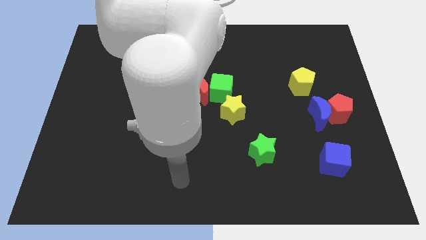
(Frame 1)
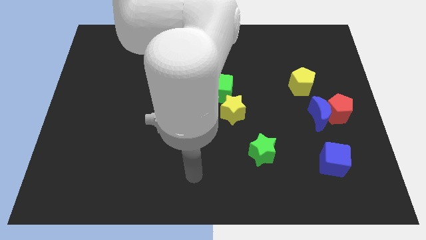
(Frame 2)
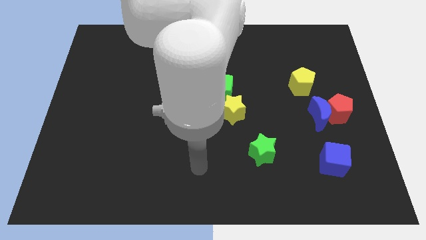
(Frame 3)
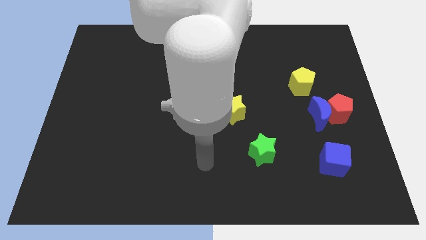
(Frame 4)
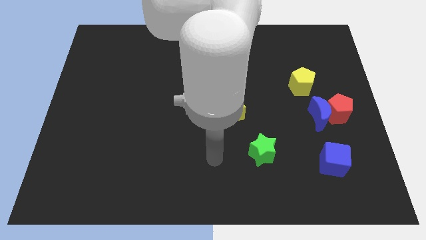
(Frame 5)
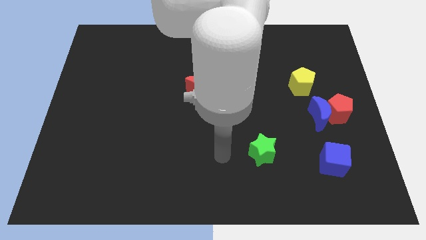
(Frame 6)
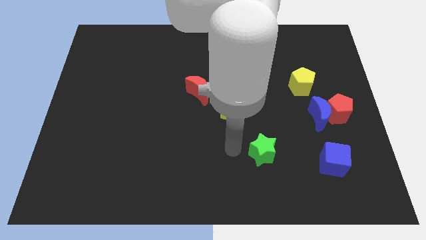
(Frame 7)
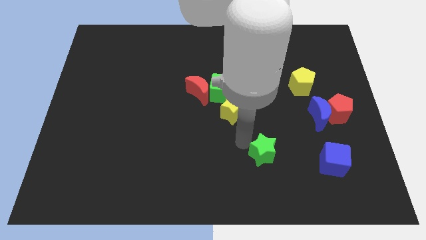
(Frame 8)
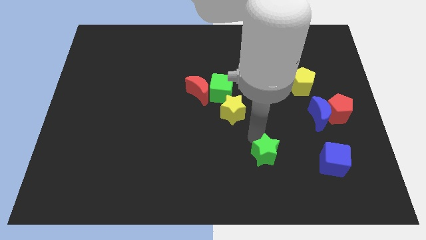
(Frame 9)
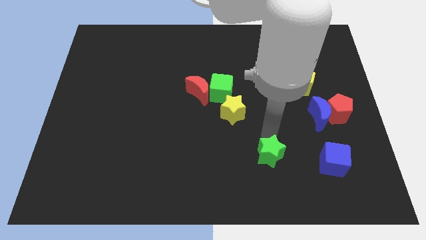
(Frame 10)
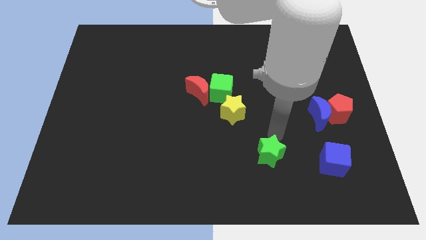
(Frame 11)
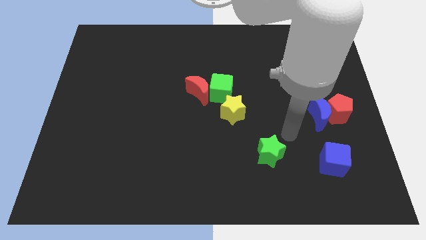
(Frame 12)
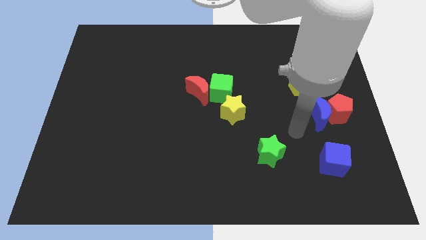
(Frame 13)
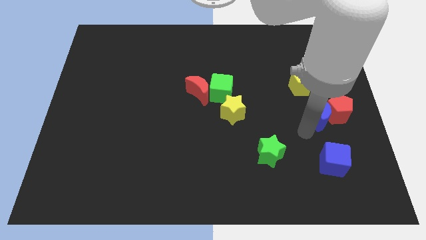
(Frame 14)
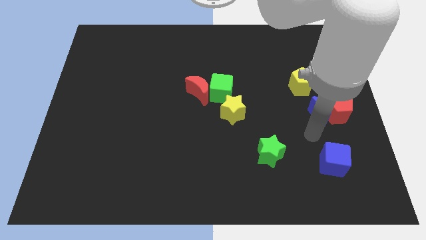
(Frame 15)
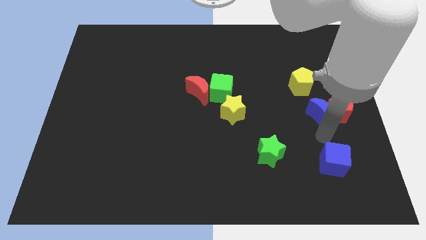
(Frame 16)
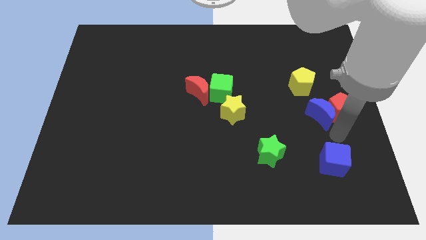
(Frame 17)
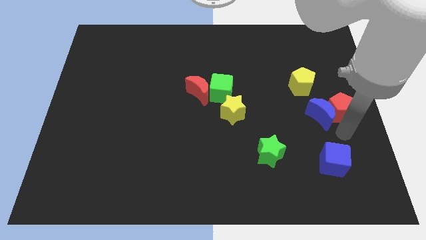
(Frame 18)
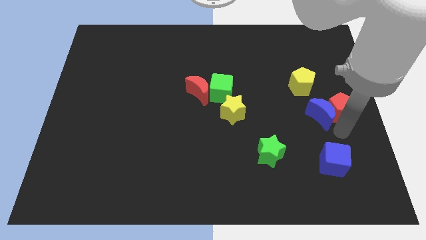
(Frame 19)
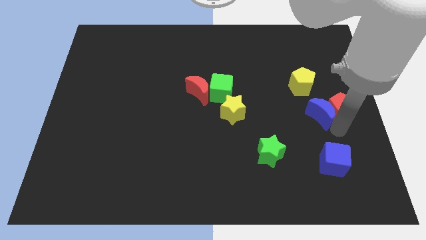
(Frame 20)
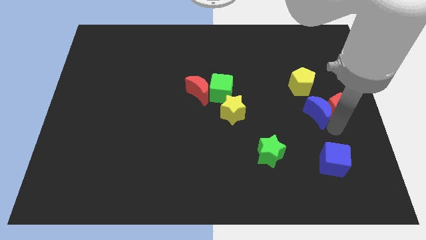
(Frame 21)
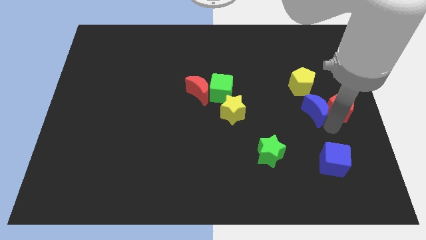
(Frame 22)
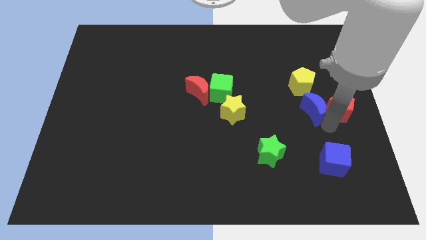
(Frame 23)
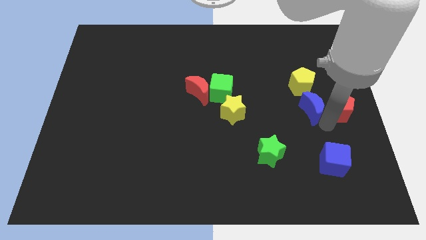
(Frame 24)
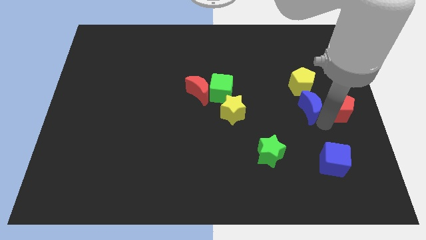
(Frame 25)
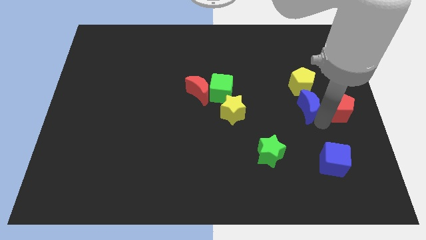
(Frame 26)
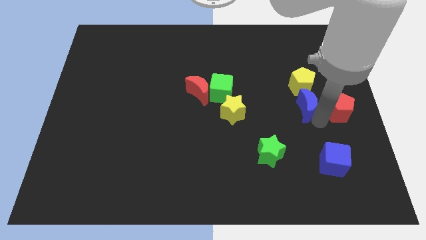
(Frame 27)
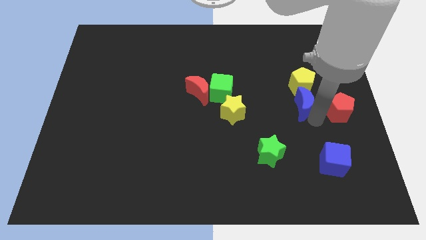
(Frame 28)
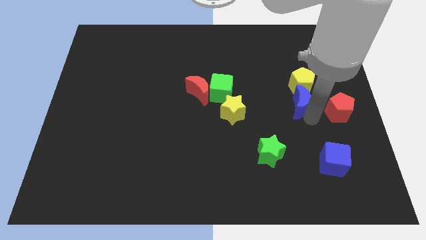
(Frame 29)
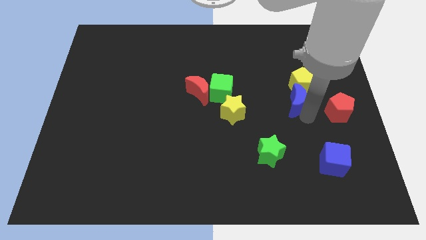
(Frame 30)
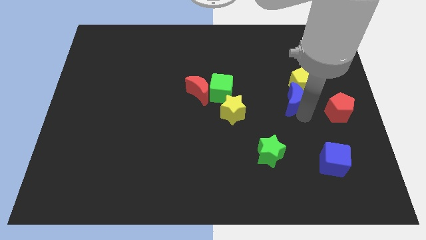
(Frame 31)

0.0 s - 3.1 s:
push the blue moon up and to the left diagonally somewhat

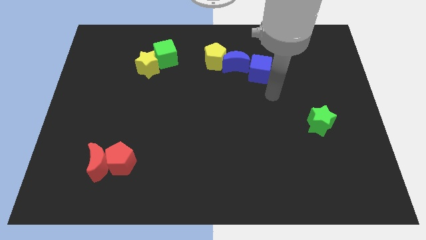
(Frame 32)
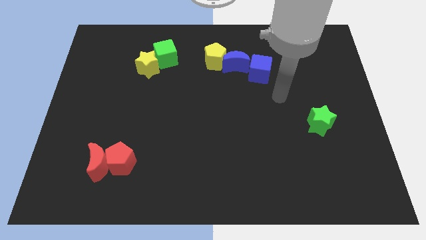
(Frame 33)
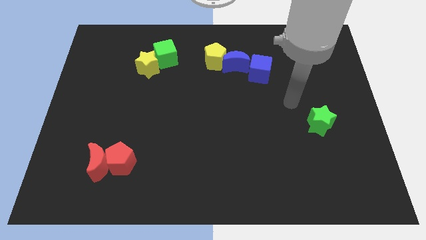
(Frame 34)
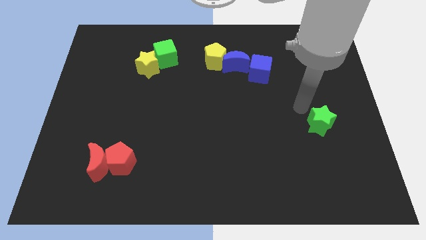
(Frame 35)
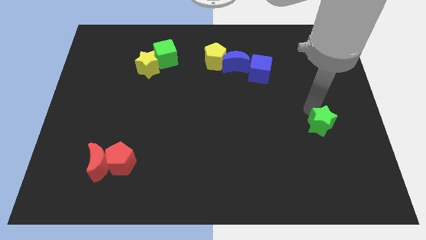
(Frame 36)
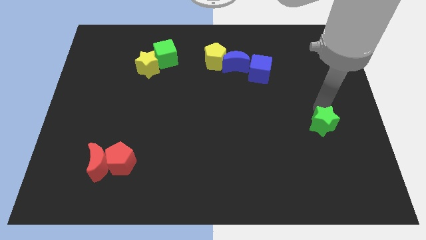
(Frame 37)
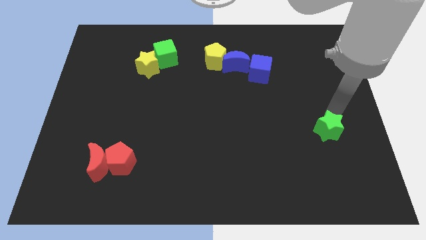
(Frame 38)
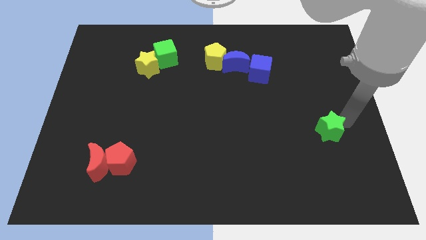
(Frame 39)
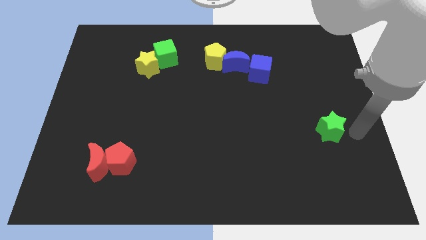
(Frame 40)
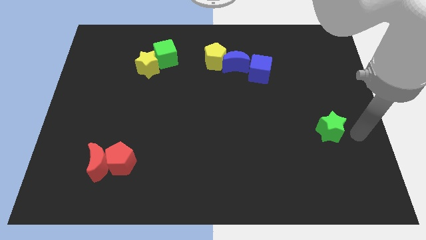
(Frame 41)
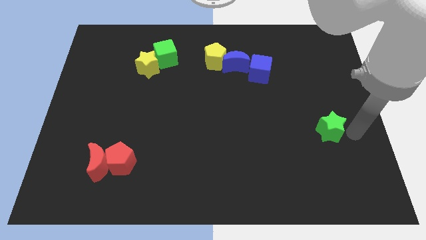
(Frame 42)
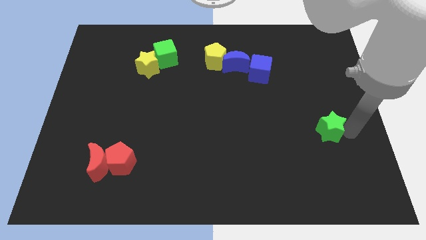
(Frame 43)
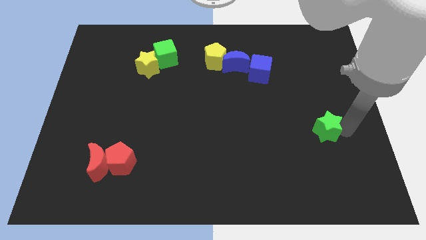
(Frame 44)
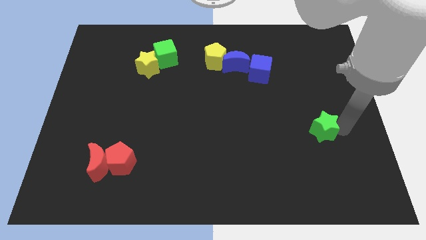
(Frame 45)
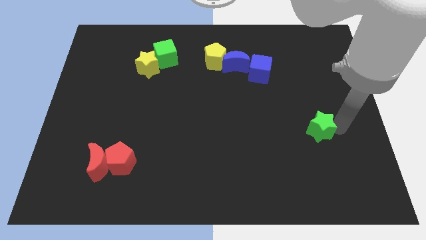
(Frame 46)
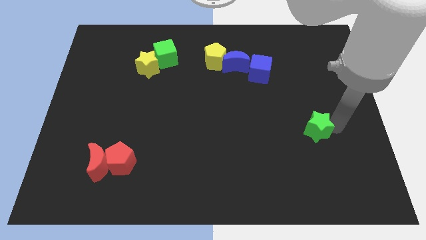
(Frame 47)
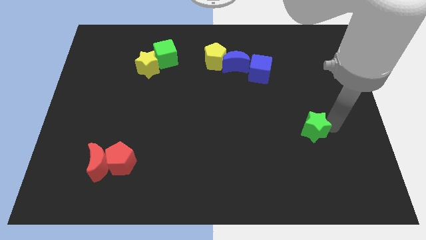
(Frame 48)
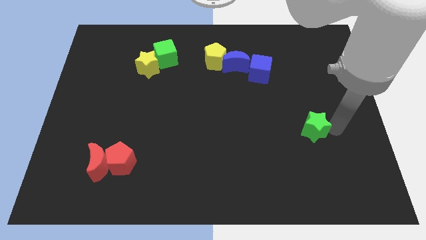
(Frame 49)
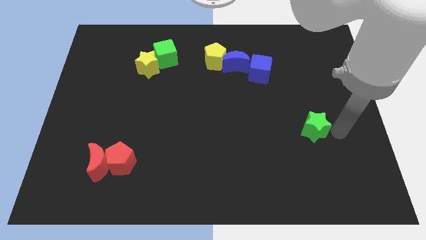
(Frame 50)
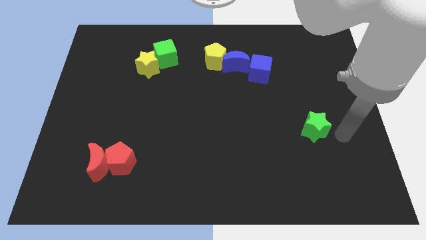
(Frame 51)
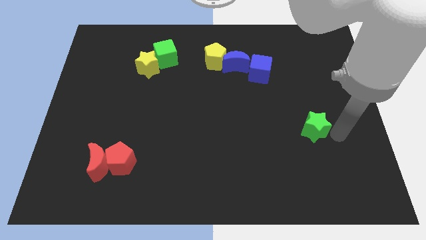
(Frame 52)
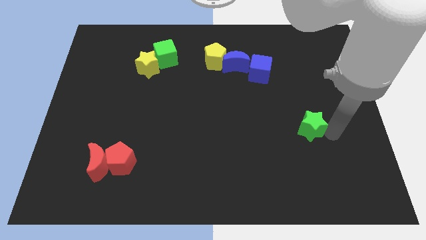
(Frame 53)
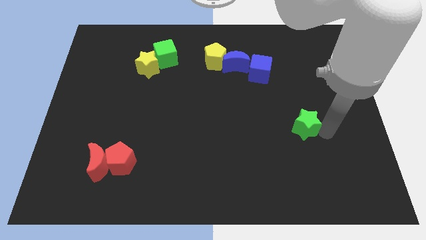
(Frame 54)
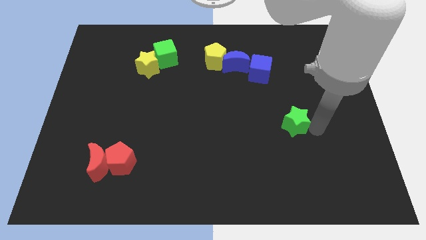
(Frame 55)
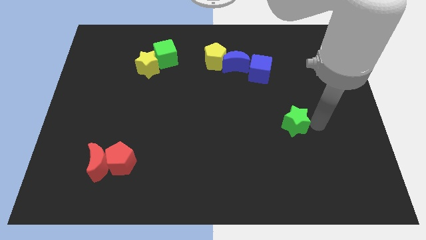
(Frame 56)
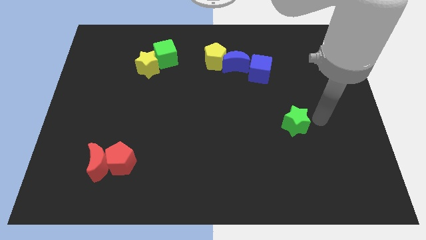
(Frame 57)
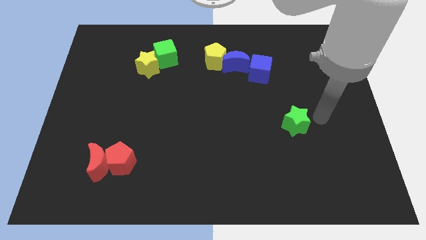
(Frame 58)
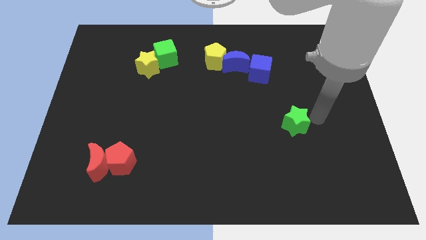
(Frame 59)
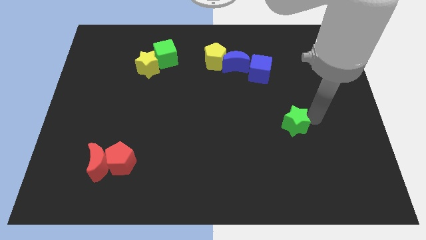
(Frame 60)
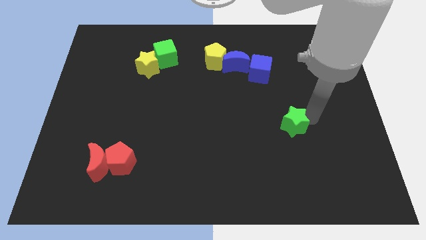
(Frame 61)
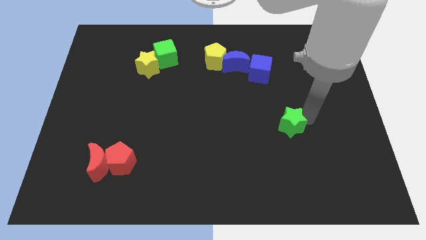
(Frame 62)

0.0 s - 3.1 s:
move the green star a little bit to the left

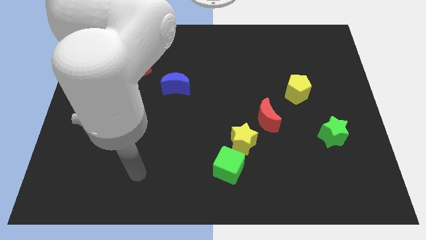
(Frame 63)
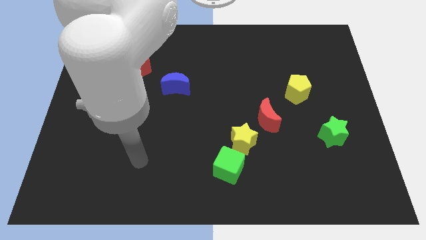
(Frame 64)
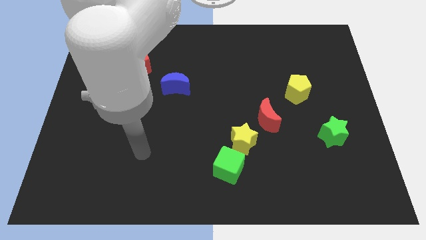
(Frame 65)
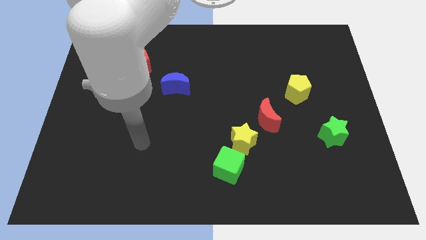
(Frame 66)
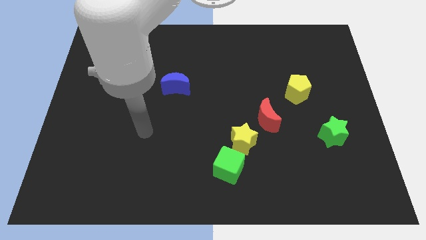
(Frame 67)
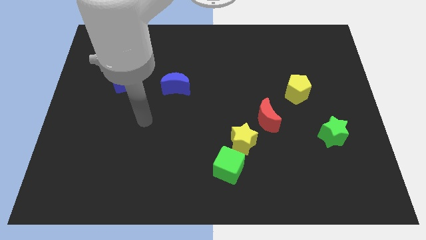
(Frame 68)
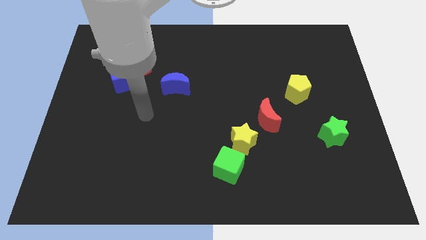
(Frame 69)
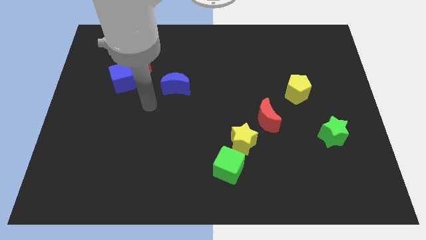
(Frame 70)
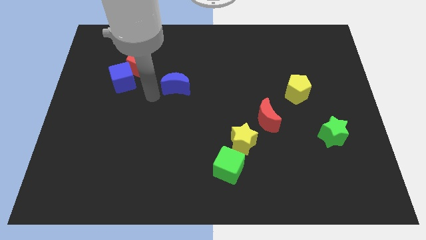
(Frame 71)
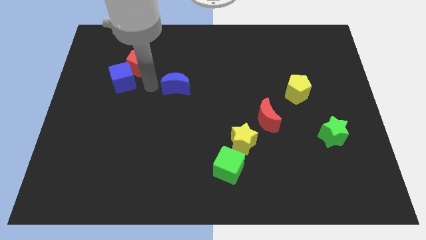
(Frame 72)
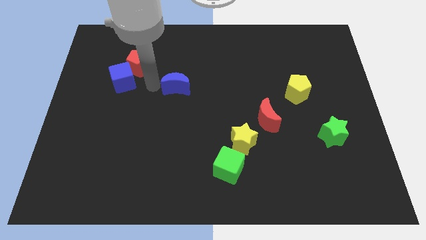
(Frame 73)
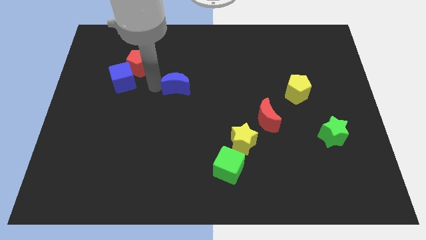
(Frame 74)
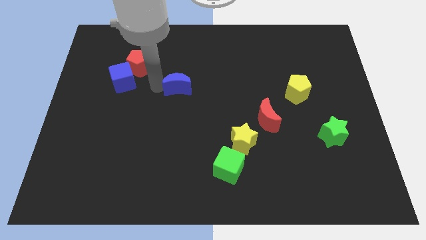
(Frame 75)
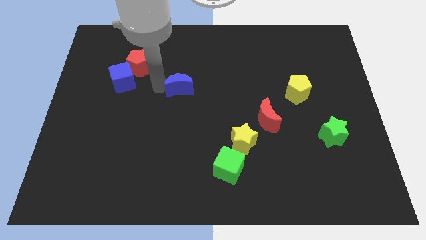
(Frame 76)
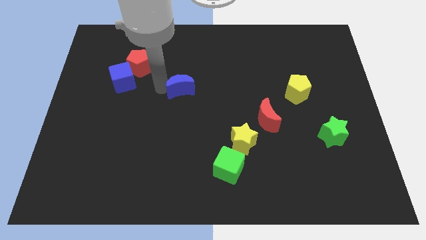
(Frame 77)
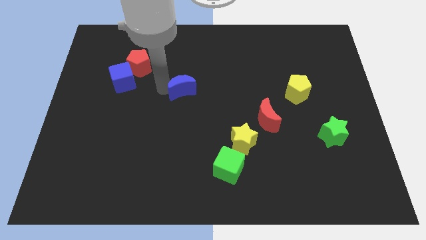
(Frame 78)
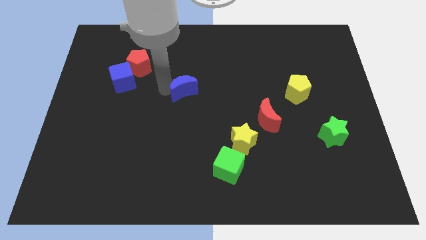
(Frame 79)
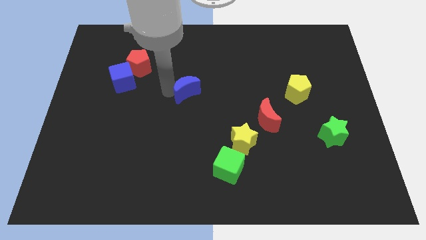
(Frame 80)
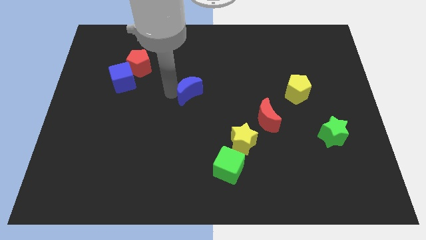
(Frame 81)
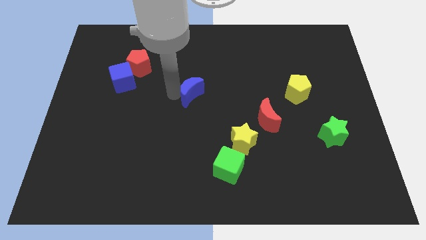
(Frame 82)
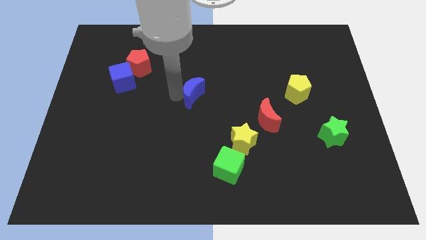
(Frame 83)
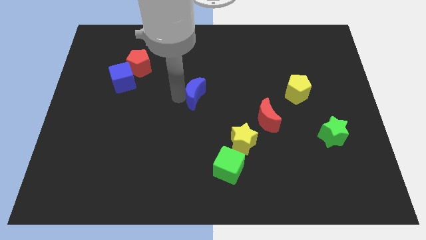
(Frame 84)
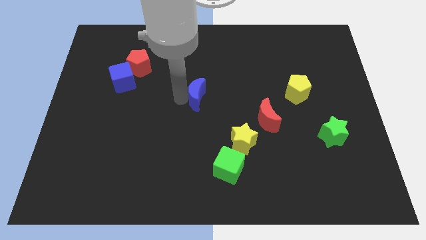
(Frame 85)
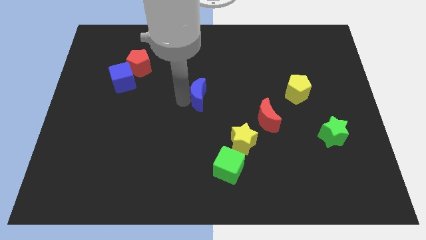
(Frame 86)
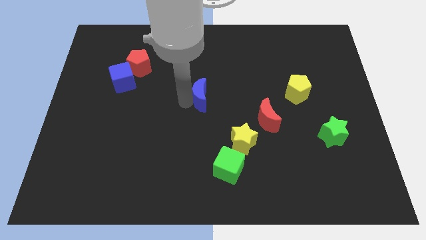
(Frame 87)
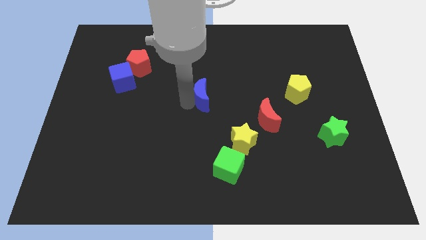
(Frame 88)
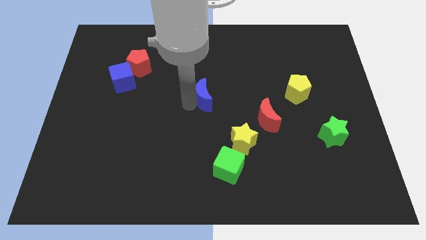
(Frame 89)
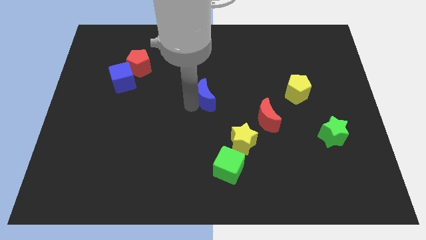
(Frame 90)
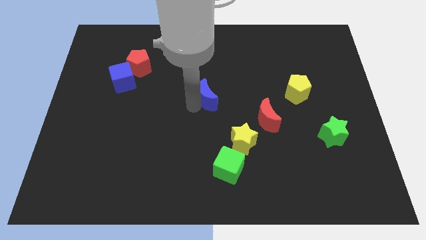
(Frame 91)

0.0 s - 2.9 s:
slightly push the blue moon right
